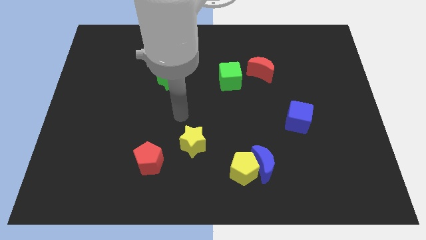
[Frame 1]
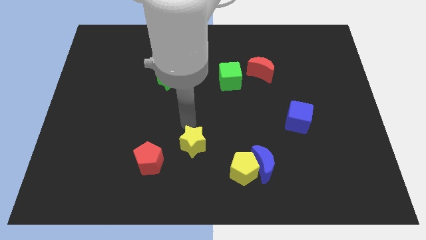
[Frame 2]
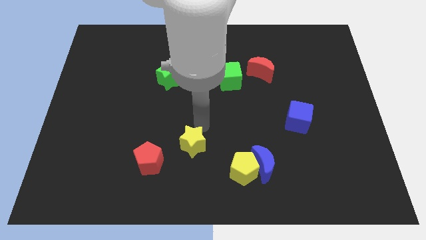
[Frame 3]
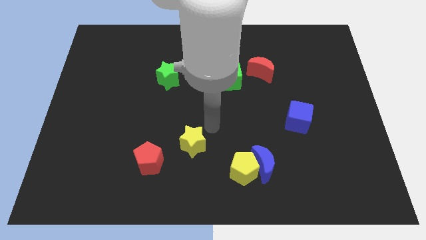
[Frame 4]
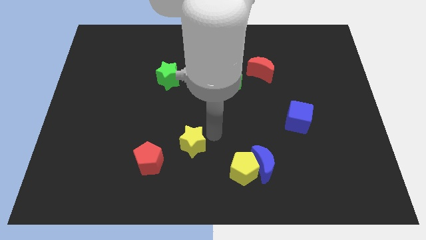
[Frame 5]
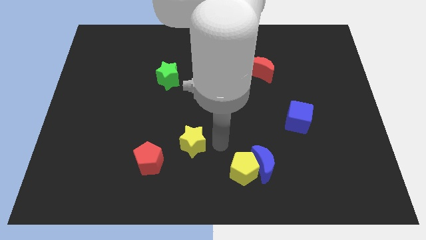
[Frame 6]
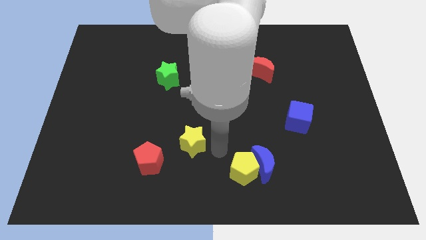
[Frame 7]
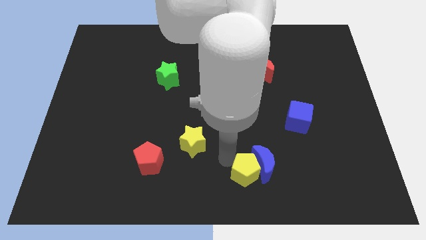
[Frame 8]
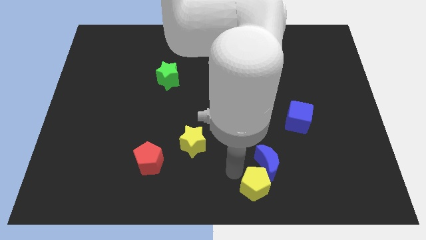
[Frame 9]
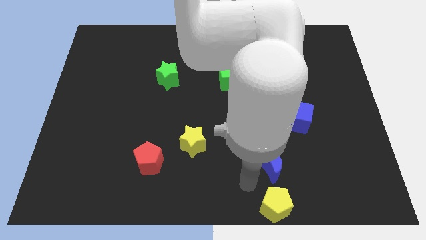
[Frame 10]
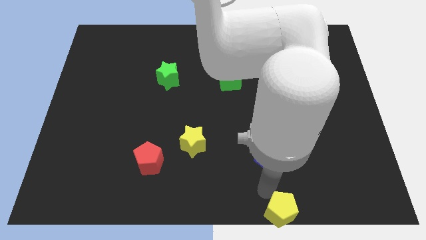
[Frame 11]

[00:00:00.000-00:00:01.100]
separate the blue moon from the yellow pentagon

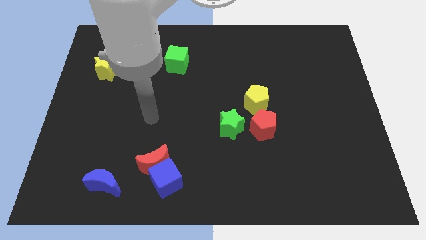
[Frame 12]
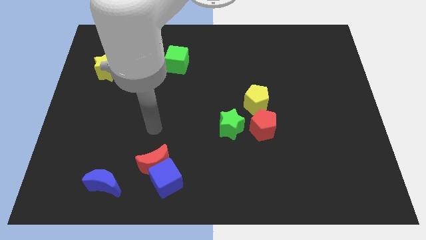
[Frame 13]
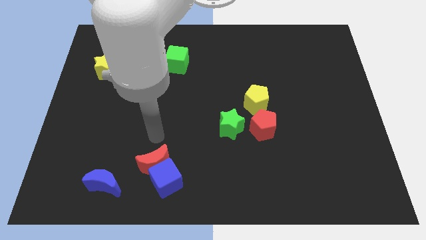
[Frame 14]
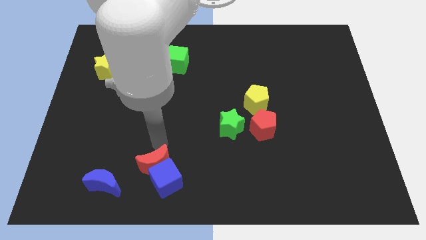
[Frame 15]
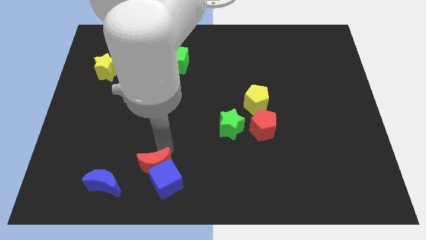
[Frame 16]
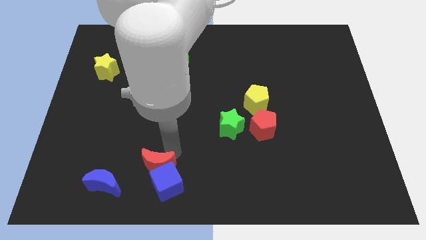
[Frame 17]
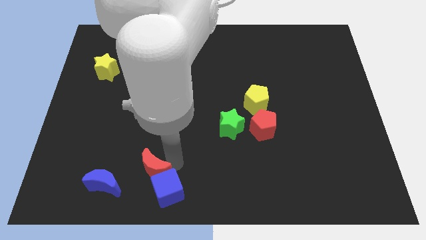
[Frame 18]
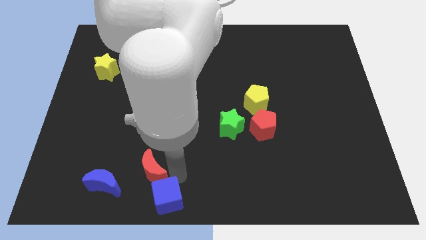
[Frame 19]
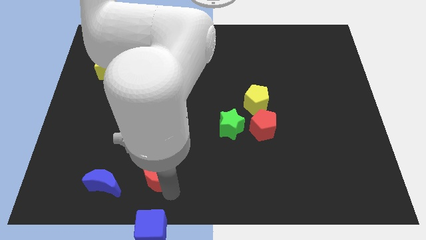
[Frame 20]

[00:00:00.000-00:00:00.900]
separate the red moon from the blue cube

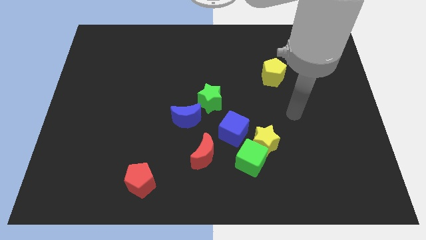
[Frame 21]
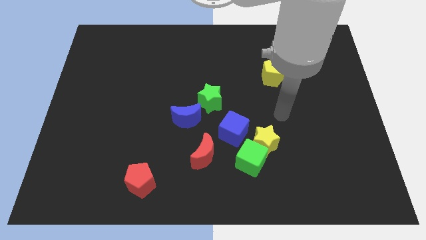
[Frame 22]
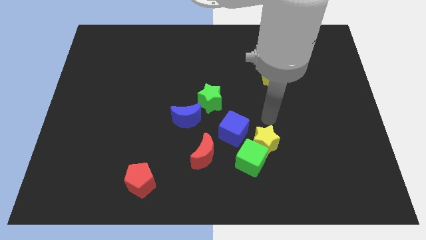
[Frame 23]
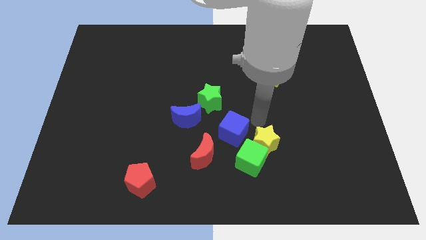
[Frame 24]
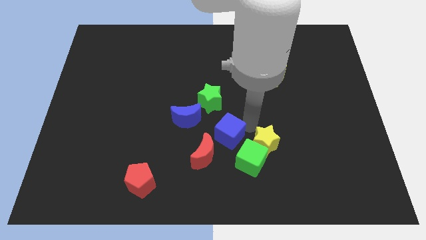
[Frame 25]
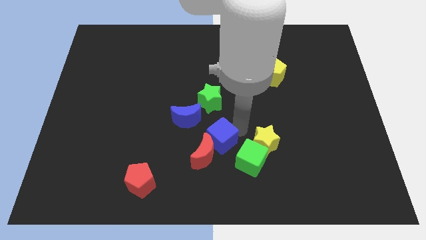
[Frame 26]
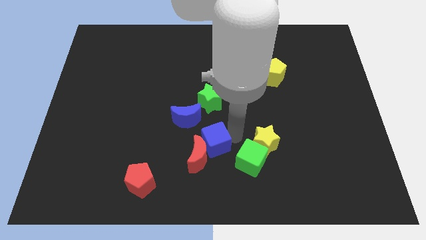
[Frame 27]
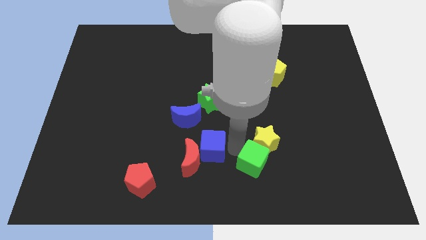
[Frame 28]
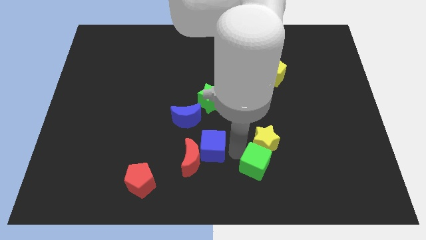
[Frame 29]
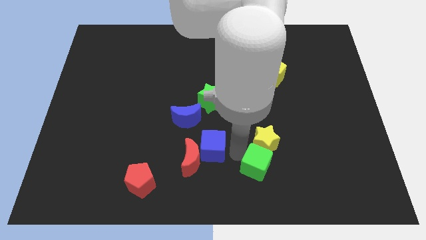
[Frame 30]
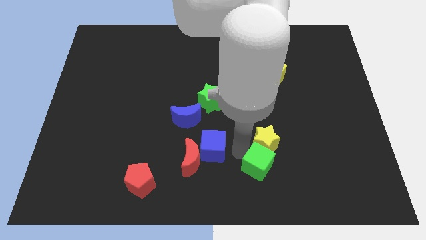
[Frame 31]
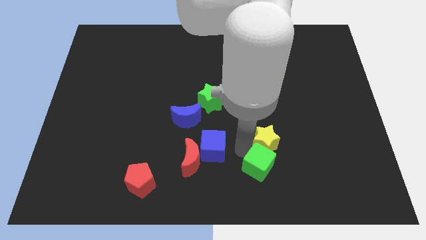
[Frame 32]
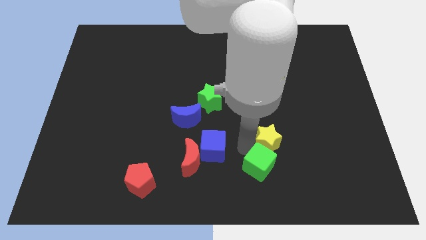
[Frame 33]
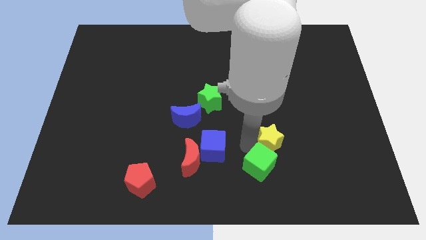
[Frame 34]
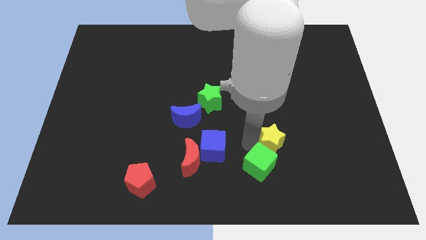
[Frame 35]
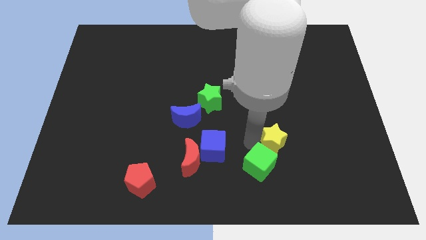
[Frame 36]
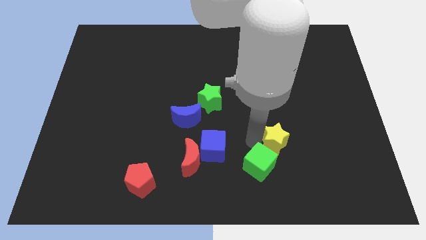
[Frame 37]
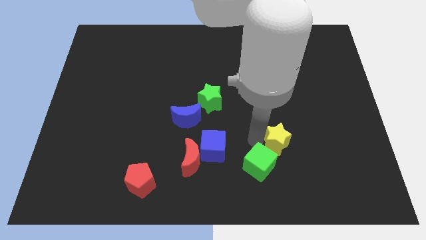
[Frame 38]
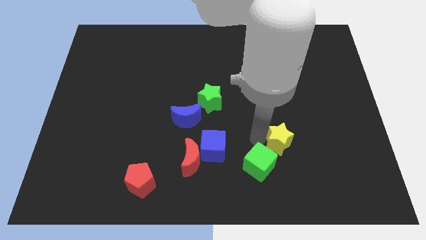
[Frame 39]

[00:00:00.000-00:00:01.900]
pull the yellow star apart from the green cube and blue cube

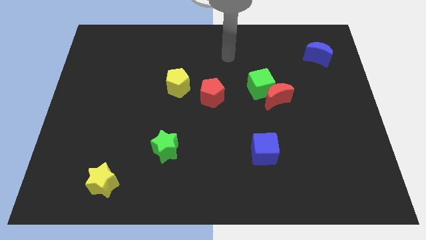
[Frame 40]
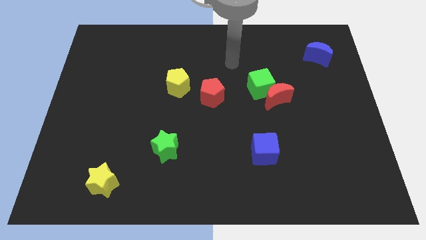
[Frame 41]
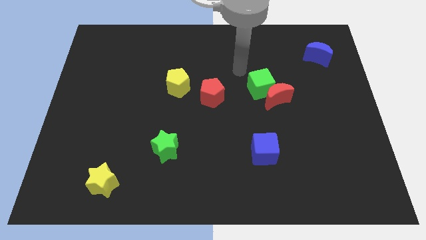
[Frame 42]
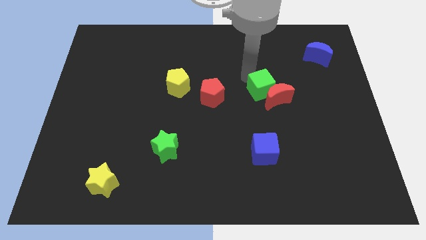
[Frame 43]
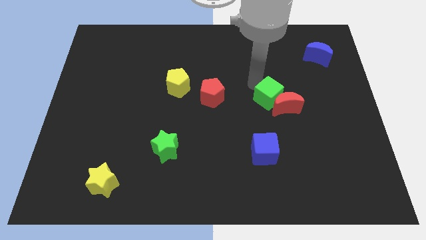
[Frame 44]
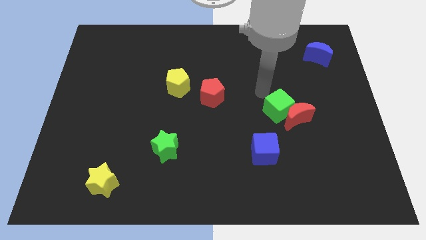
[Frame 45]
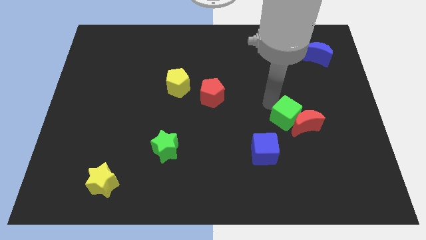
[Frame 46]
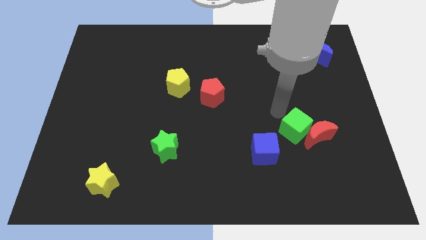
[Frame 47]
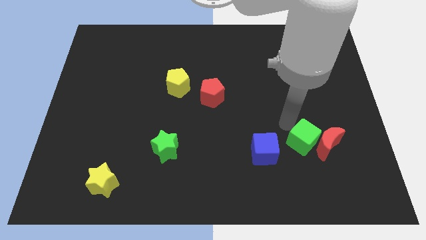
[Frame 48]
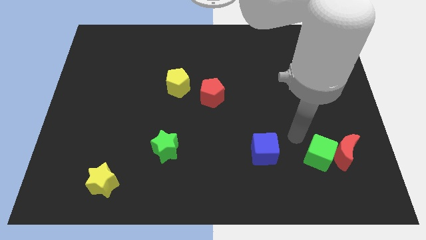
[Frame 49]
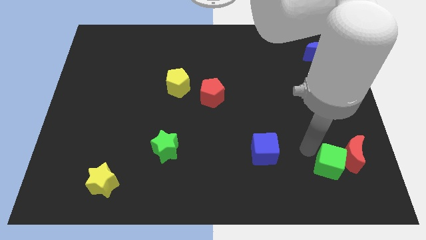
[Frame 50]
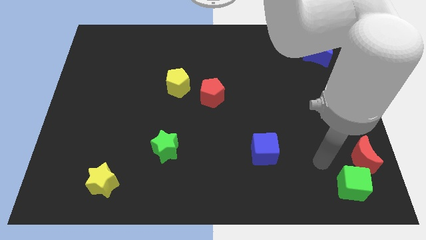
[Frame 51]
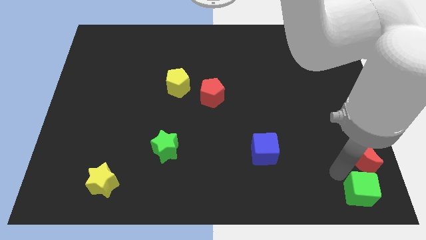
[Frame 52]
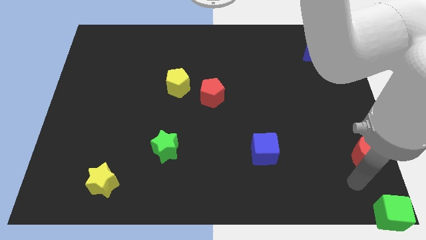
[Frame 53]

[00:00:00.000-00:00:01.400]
pull the red moon apart from the green cube

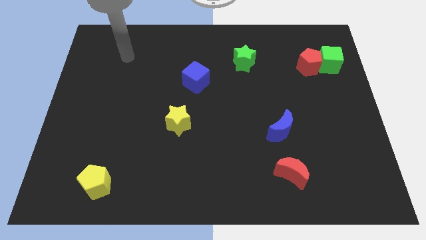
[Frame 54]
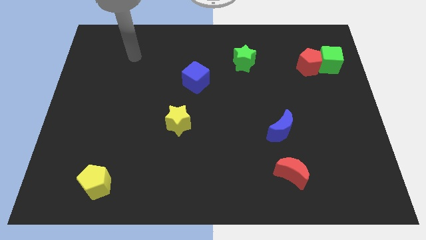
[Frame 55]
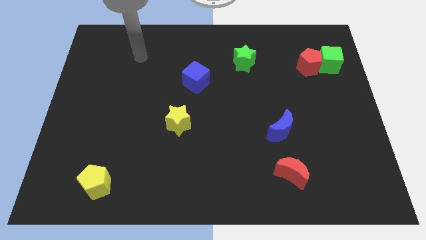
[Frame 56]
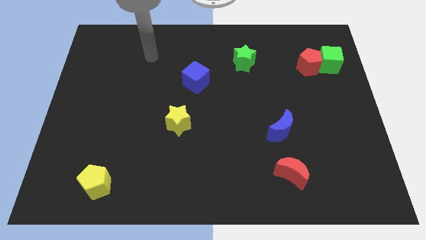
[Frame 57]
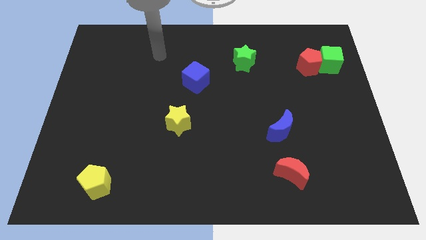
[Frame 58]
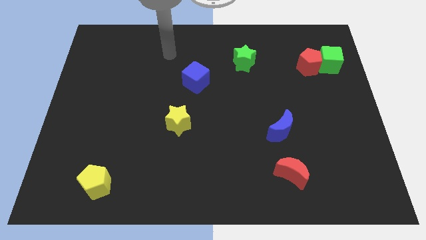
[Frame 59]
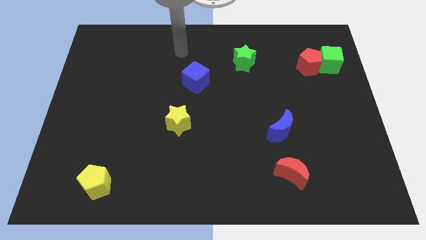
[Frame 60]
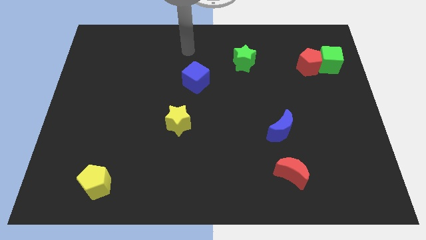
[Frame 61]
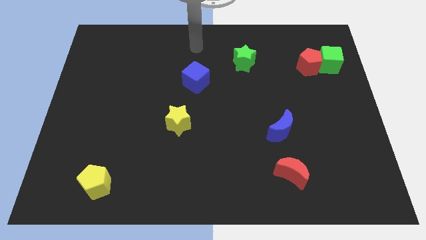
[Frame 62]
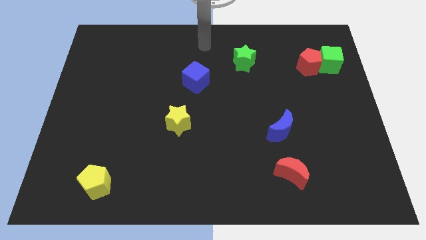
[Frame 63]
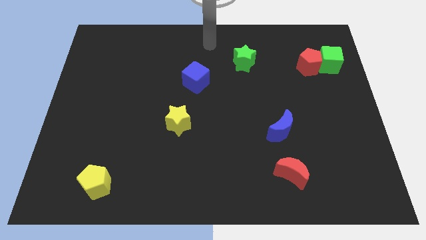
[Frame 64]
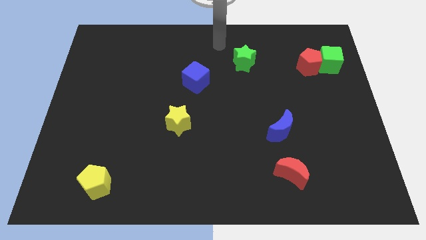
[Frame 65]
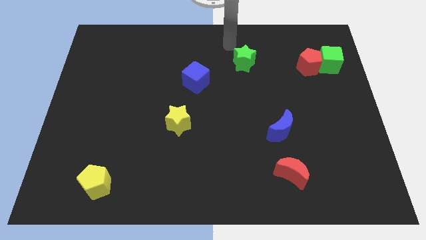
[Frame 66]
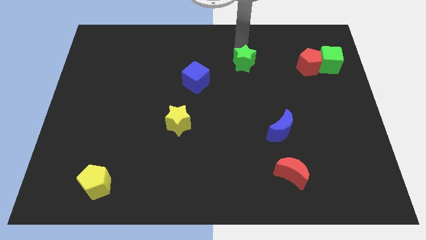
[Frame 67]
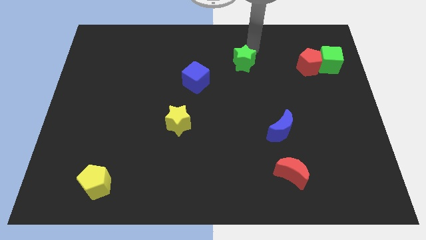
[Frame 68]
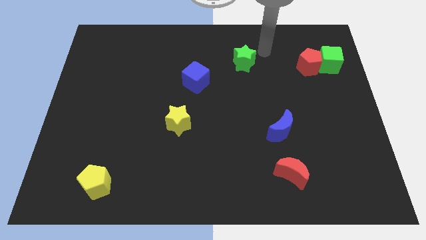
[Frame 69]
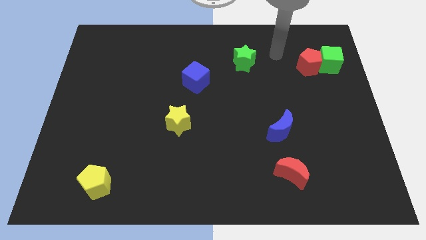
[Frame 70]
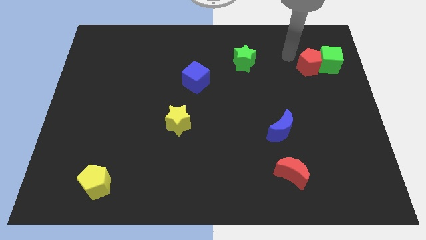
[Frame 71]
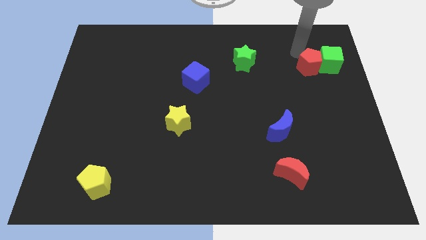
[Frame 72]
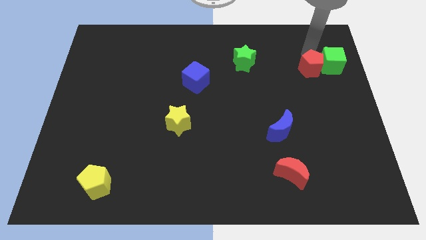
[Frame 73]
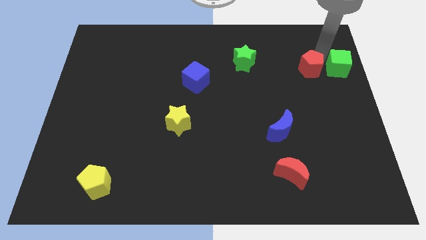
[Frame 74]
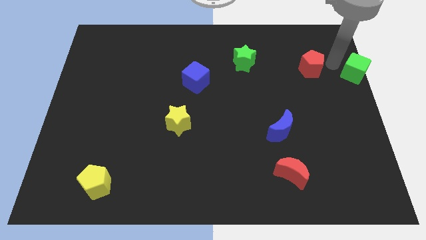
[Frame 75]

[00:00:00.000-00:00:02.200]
separate the red pentagon from the green cube

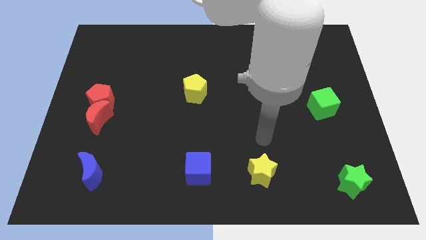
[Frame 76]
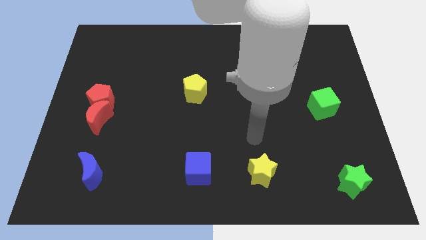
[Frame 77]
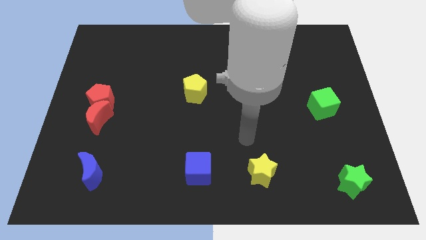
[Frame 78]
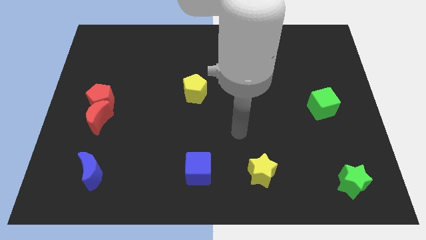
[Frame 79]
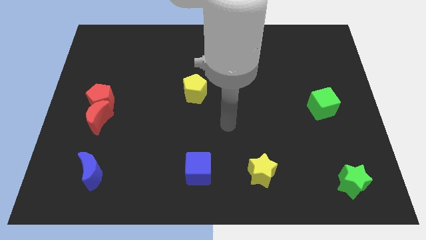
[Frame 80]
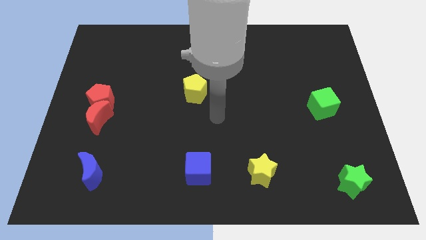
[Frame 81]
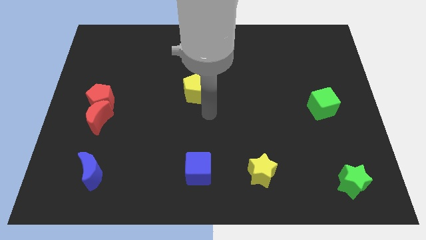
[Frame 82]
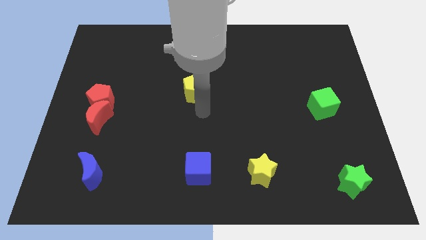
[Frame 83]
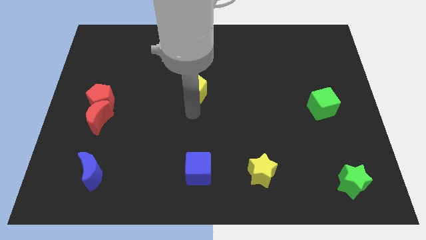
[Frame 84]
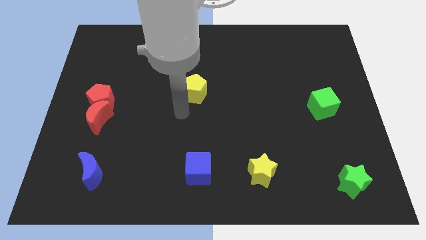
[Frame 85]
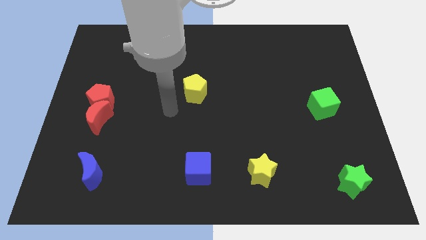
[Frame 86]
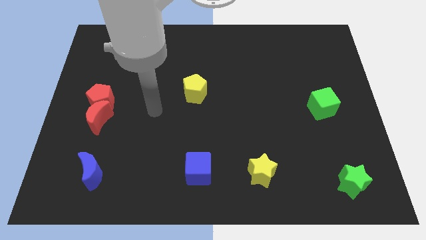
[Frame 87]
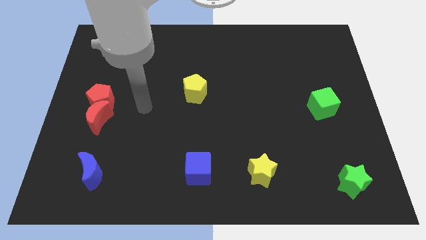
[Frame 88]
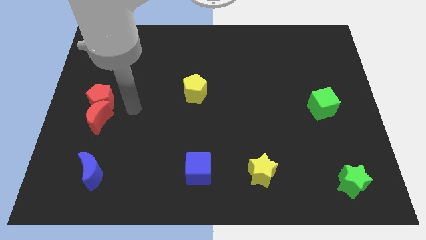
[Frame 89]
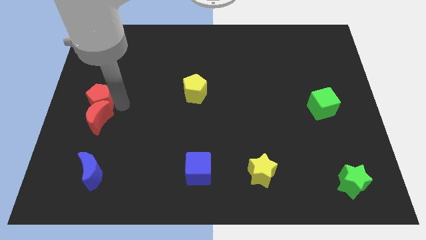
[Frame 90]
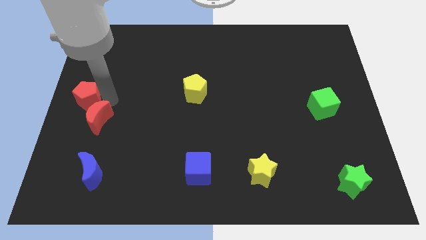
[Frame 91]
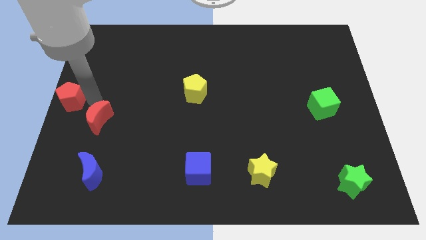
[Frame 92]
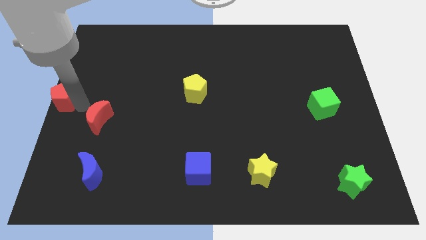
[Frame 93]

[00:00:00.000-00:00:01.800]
separate the red moon from the red pentagon
